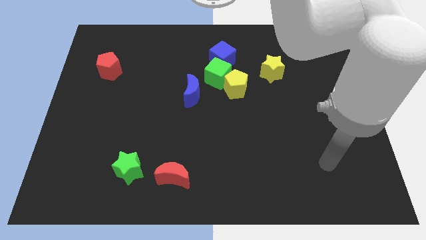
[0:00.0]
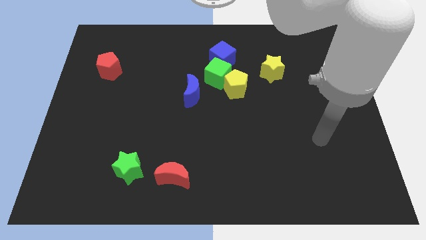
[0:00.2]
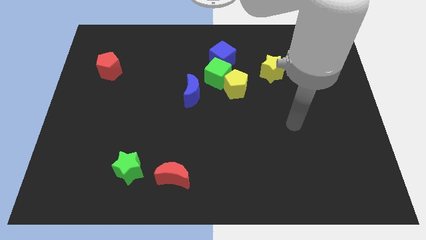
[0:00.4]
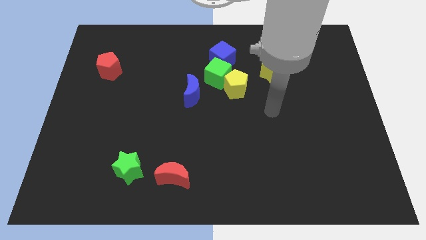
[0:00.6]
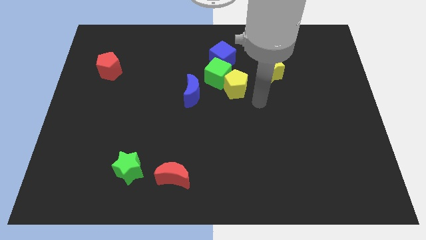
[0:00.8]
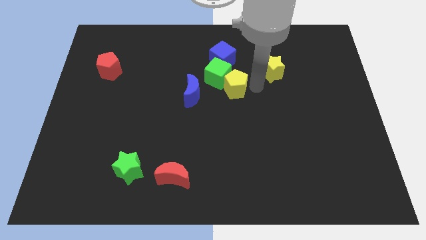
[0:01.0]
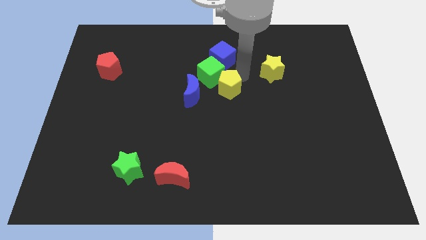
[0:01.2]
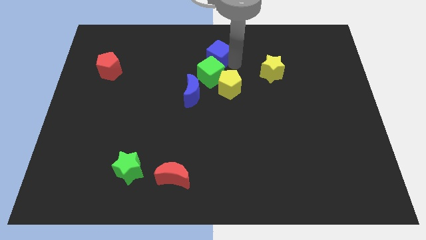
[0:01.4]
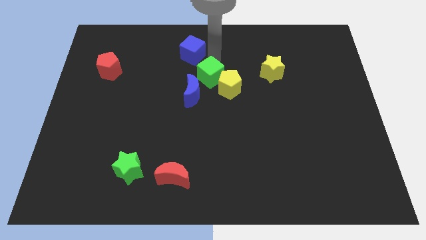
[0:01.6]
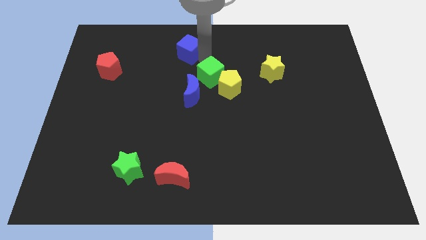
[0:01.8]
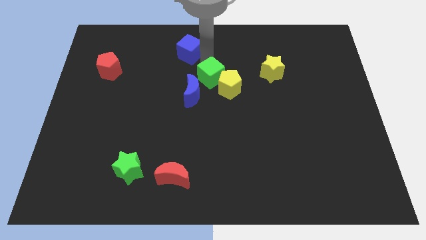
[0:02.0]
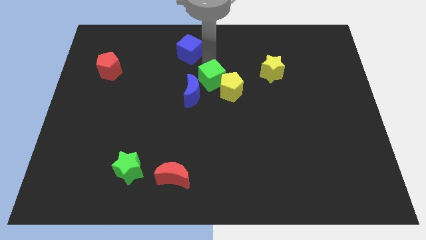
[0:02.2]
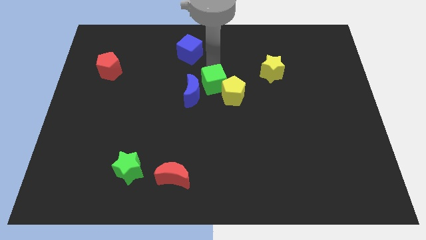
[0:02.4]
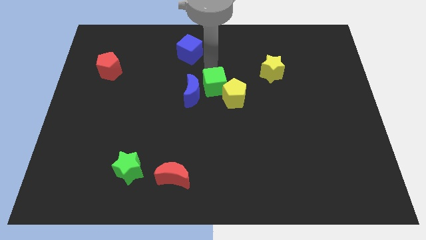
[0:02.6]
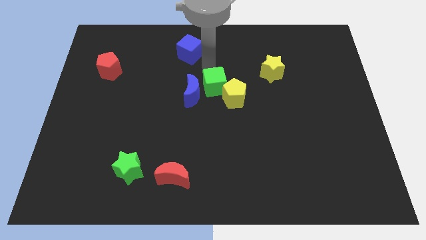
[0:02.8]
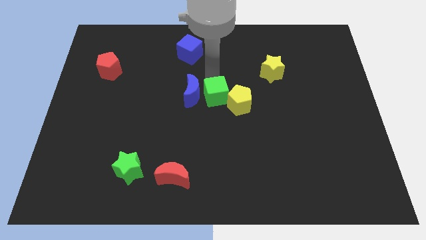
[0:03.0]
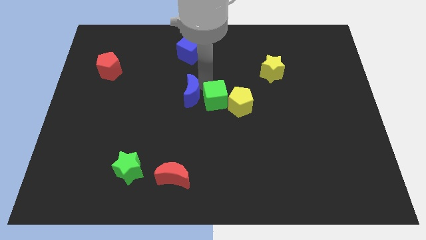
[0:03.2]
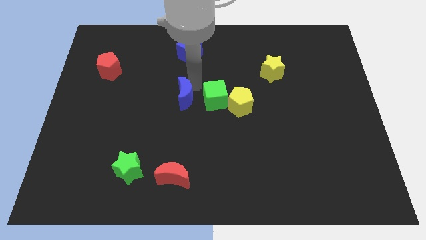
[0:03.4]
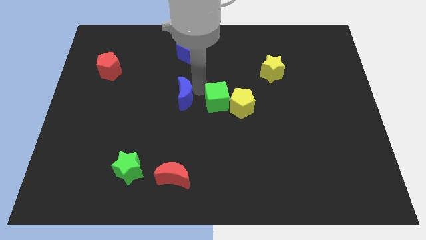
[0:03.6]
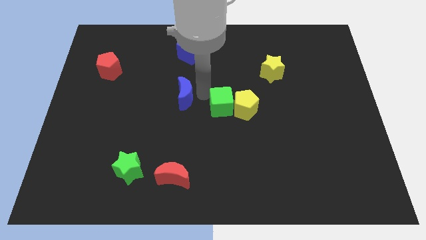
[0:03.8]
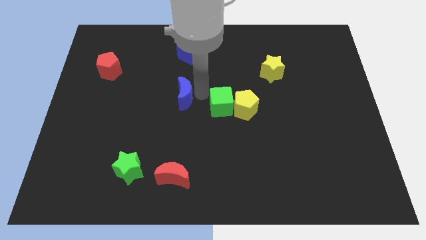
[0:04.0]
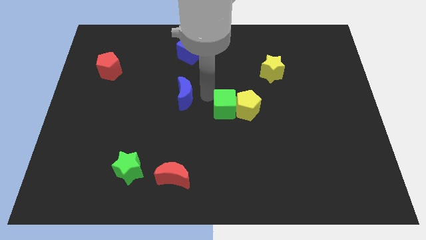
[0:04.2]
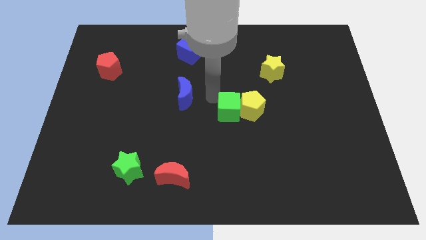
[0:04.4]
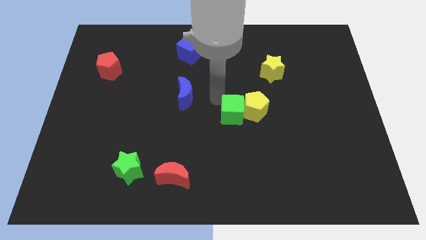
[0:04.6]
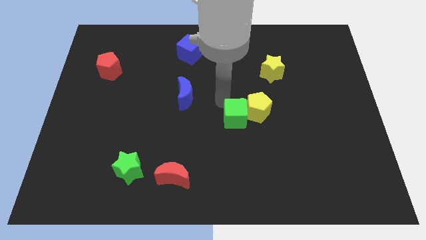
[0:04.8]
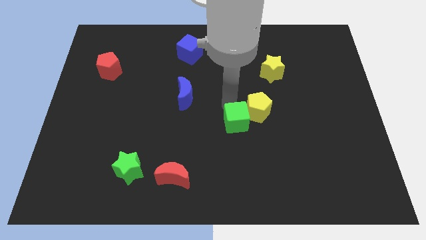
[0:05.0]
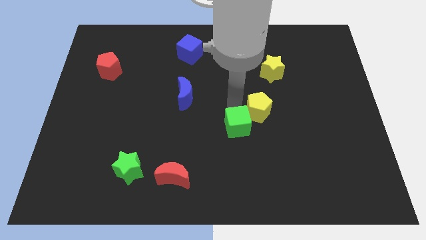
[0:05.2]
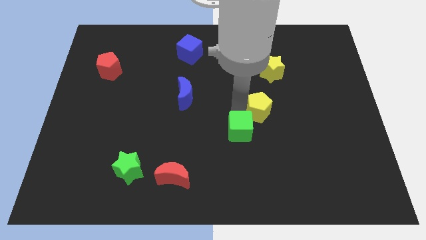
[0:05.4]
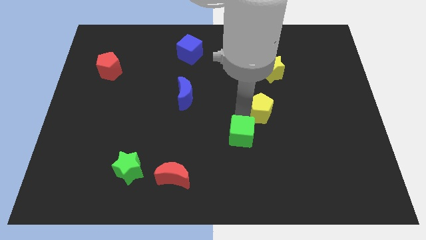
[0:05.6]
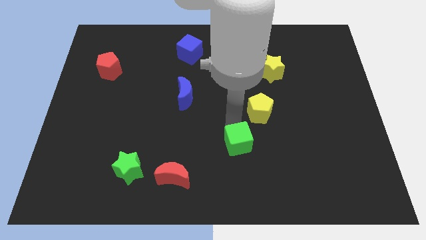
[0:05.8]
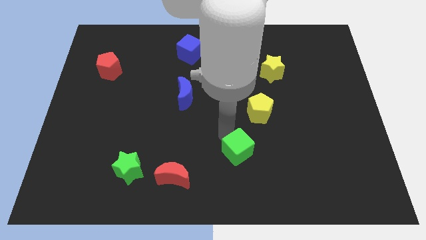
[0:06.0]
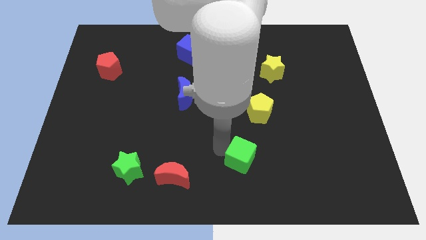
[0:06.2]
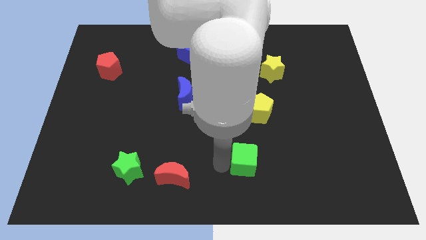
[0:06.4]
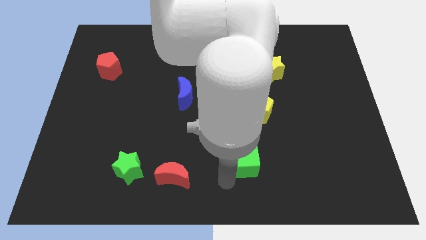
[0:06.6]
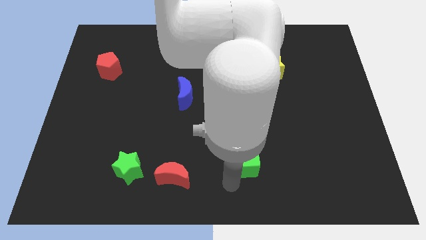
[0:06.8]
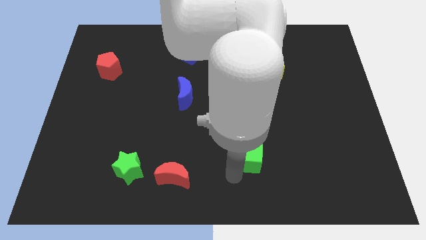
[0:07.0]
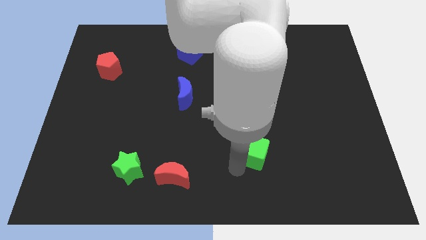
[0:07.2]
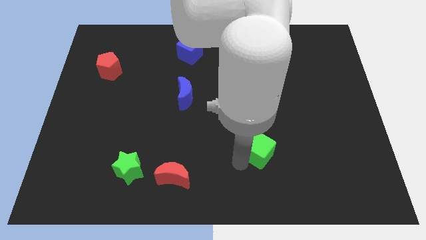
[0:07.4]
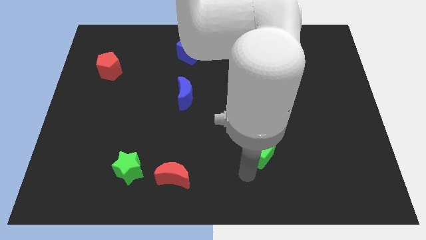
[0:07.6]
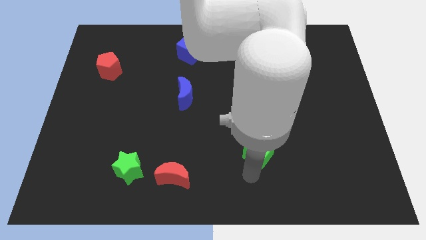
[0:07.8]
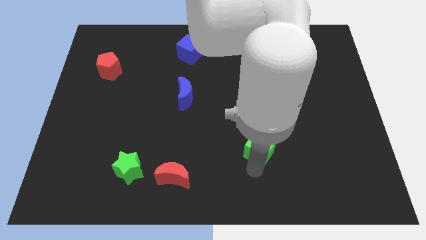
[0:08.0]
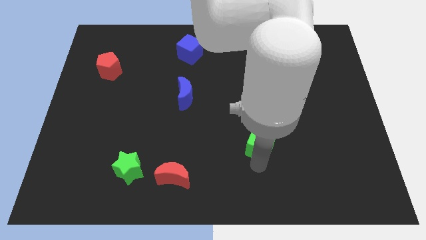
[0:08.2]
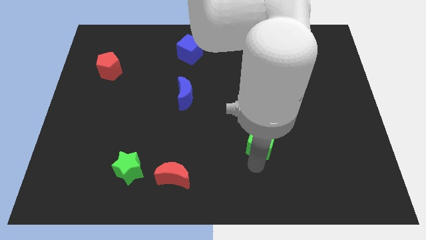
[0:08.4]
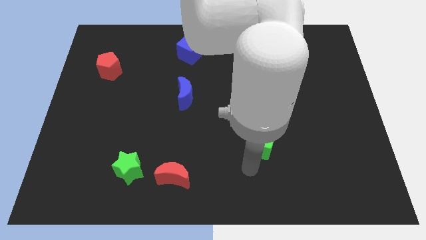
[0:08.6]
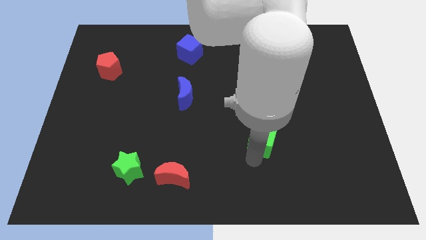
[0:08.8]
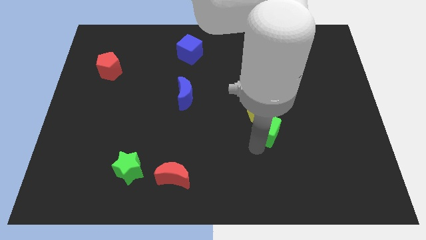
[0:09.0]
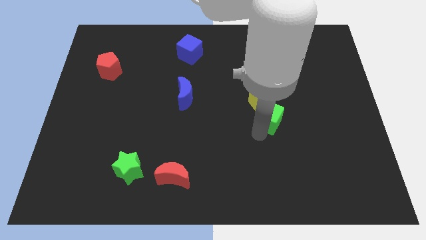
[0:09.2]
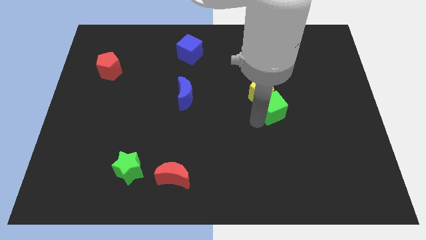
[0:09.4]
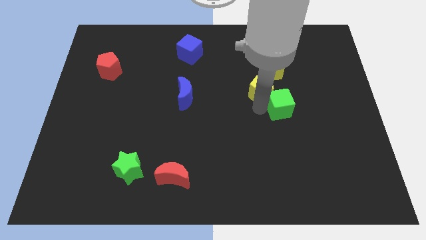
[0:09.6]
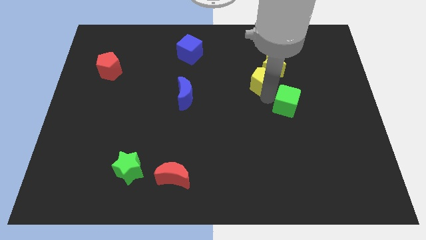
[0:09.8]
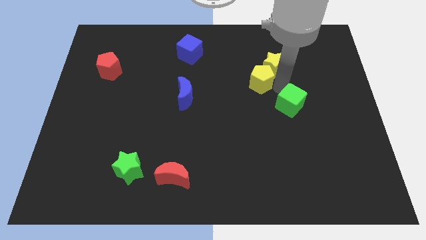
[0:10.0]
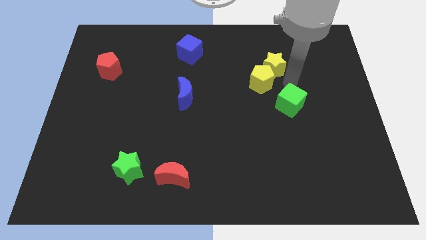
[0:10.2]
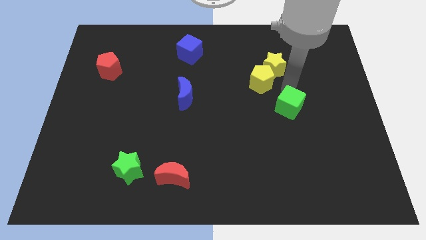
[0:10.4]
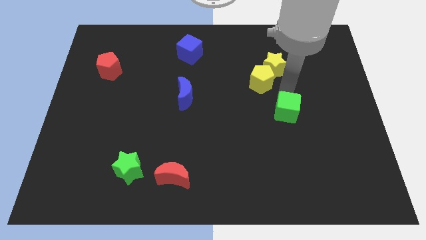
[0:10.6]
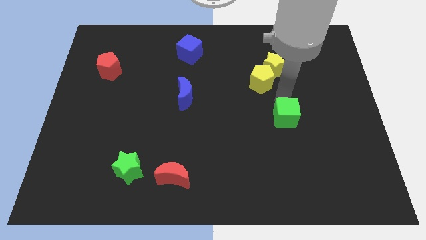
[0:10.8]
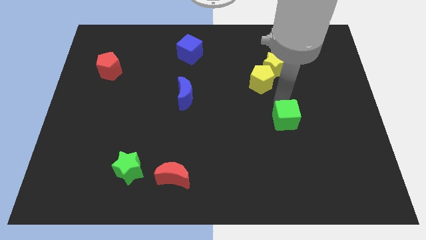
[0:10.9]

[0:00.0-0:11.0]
slide the green cube down and right

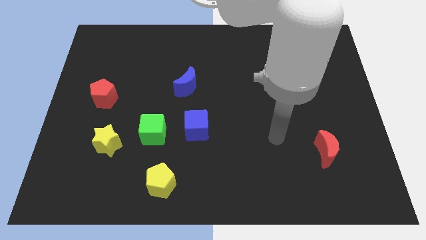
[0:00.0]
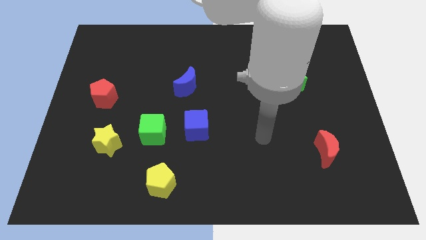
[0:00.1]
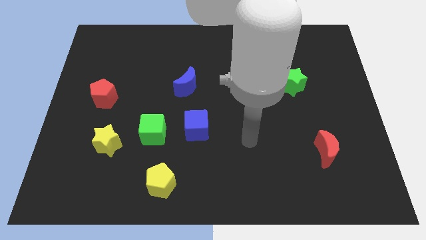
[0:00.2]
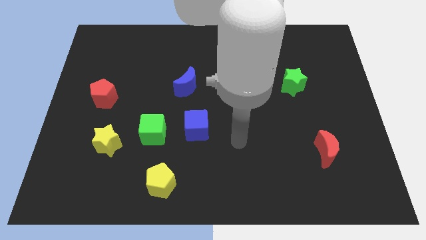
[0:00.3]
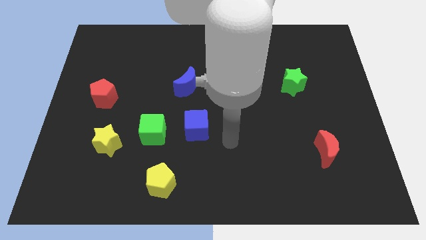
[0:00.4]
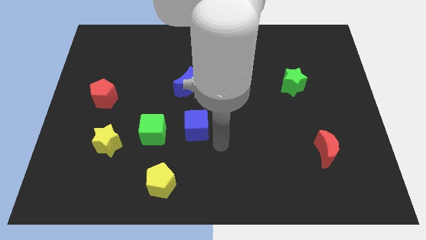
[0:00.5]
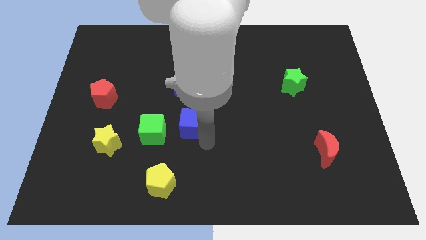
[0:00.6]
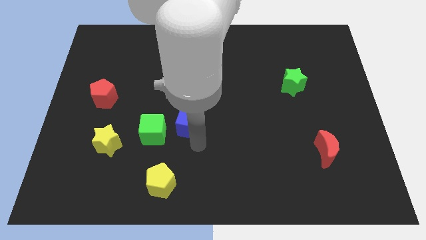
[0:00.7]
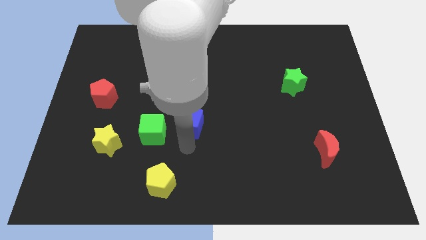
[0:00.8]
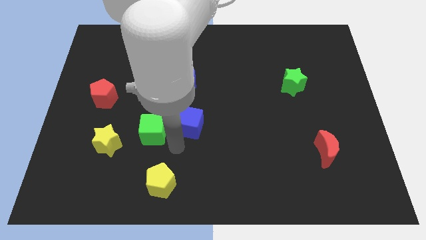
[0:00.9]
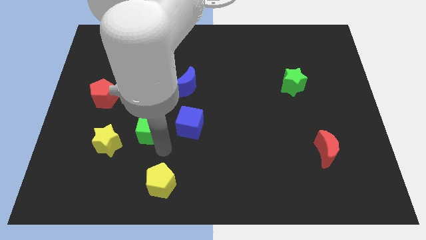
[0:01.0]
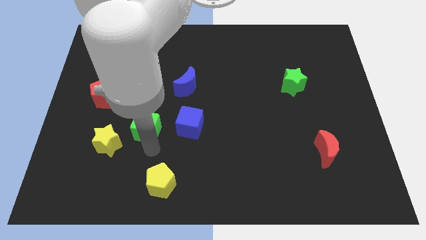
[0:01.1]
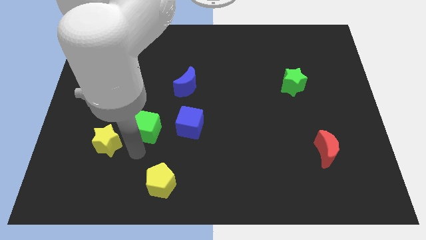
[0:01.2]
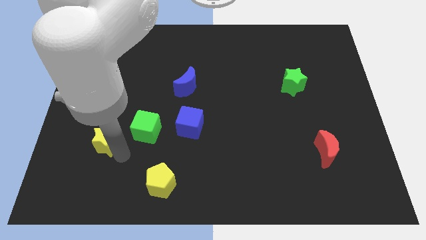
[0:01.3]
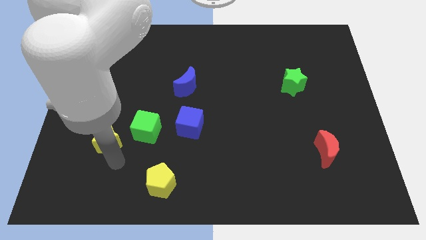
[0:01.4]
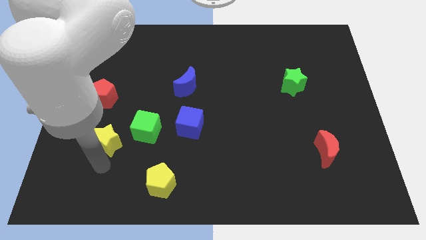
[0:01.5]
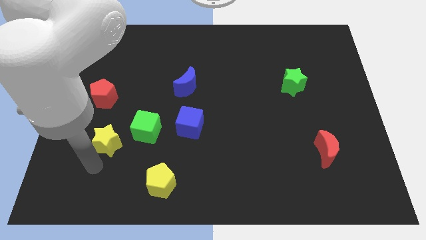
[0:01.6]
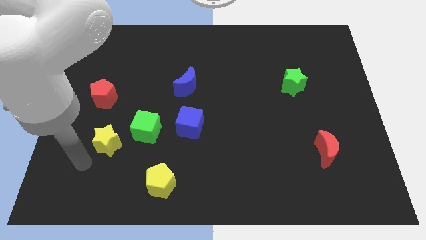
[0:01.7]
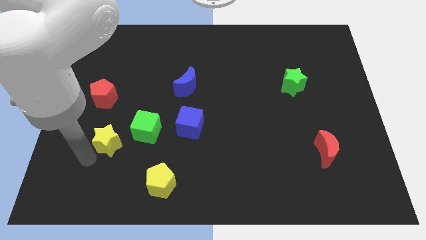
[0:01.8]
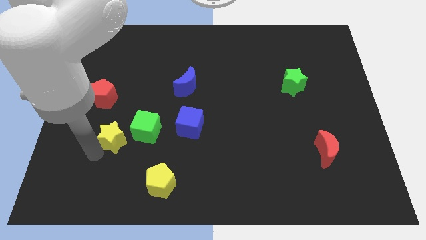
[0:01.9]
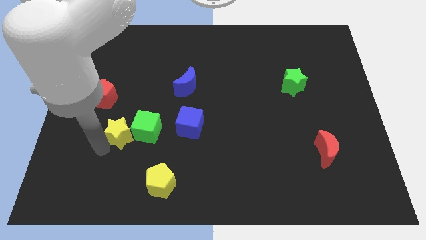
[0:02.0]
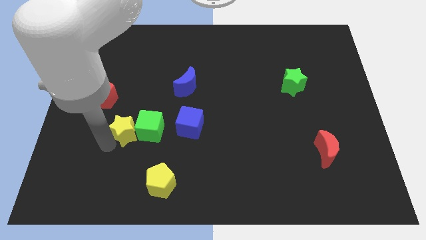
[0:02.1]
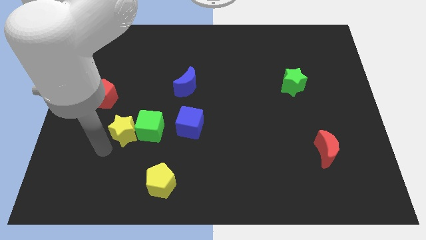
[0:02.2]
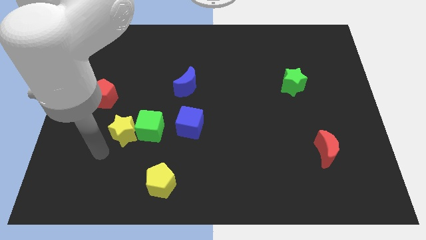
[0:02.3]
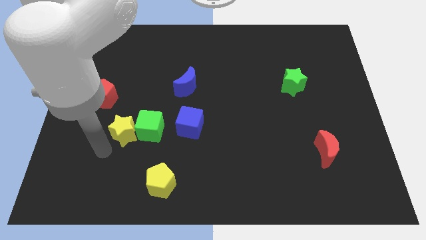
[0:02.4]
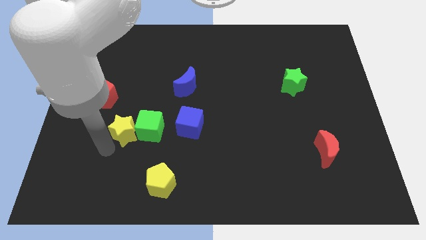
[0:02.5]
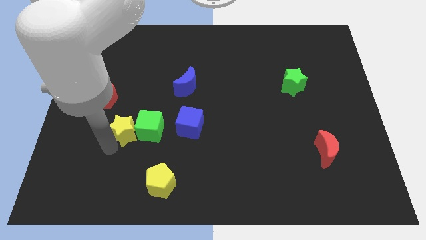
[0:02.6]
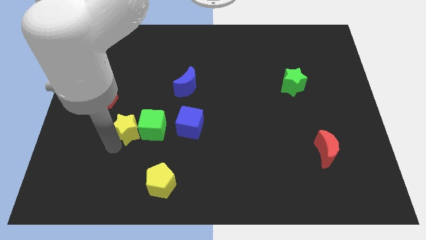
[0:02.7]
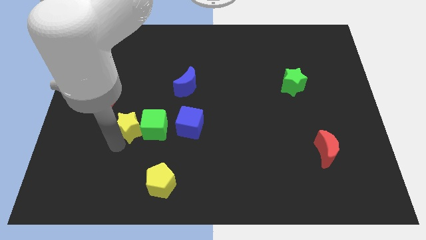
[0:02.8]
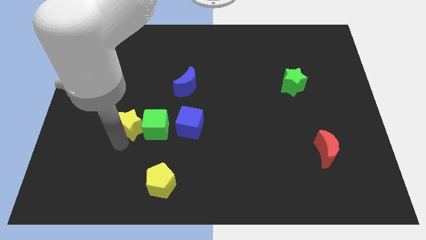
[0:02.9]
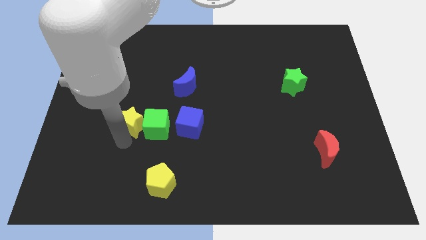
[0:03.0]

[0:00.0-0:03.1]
slightly push the yellow star diagonally upwards and to the right
